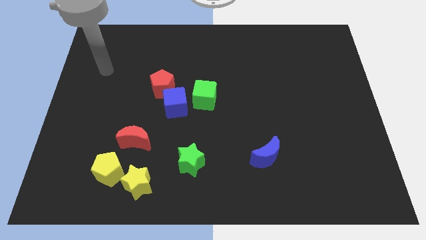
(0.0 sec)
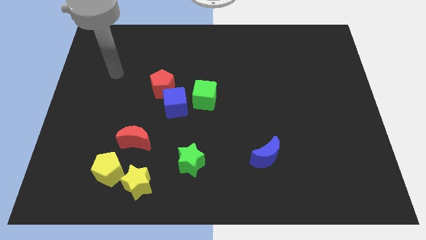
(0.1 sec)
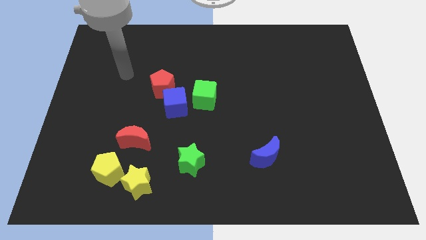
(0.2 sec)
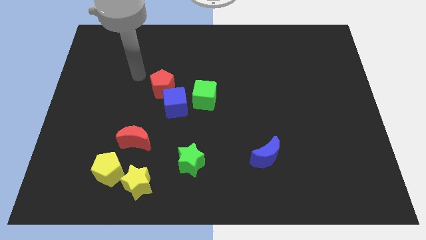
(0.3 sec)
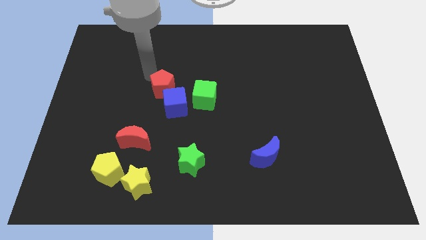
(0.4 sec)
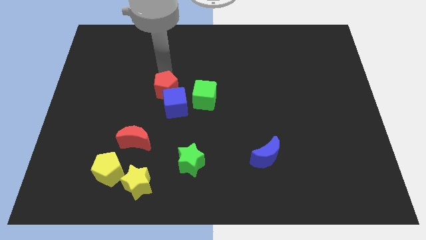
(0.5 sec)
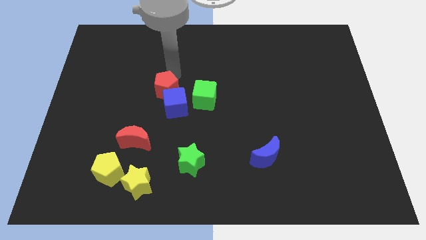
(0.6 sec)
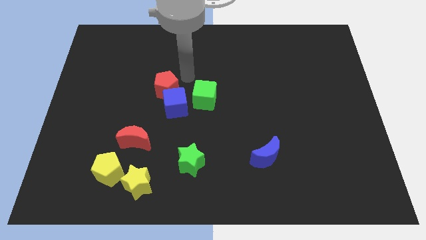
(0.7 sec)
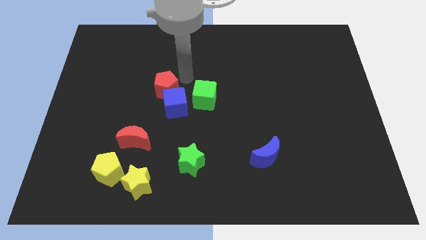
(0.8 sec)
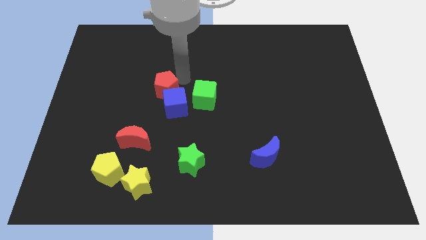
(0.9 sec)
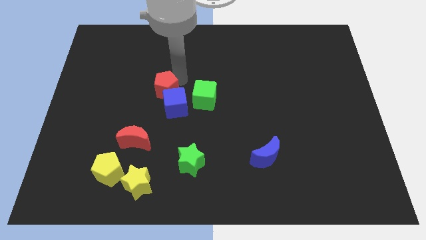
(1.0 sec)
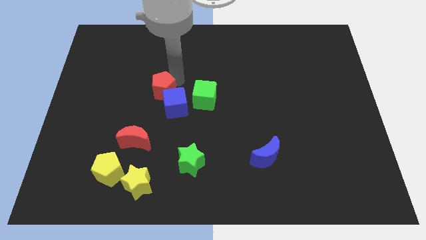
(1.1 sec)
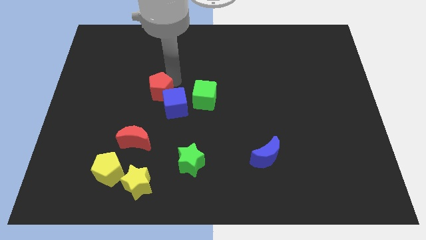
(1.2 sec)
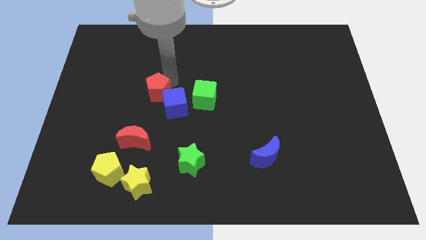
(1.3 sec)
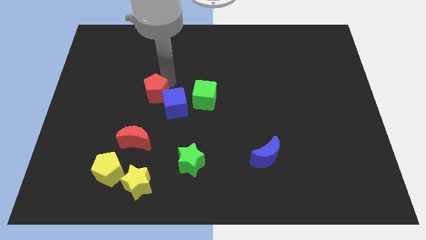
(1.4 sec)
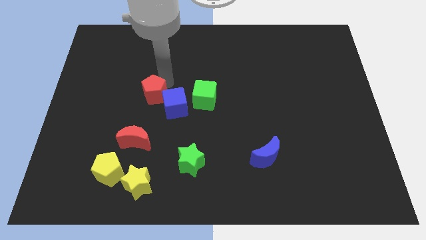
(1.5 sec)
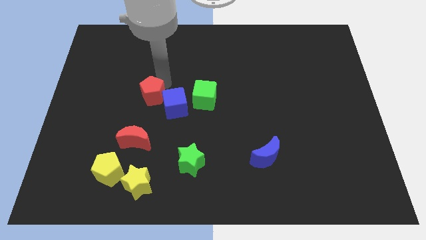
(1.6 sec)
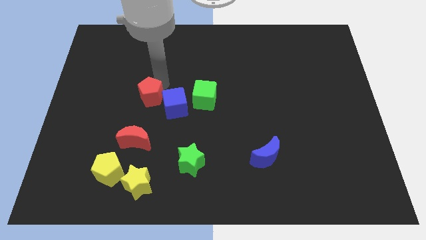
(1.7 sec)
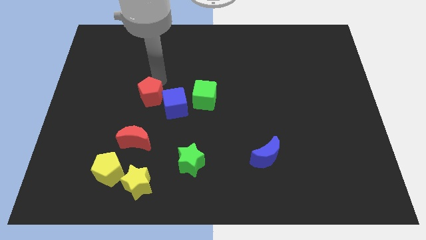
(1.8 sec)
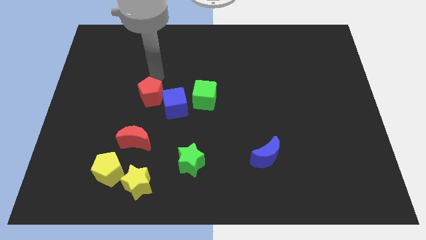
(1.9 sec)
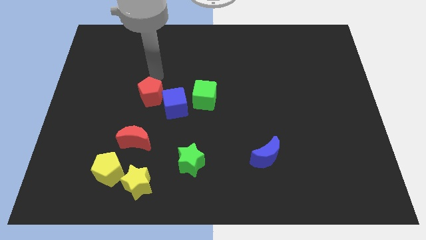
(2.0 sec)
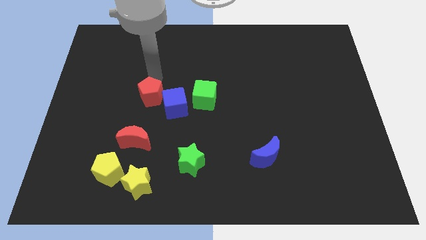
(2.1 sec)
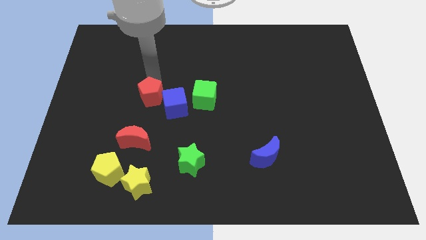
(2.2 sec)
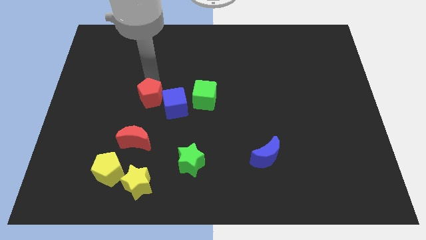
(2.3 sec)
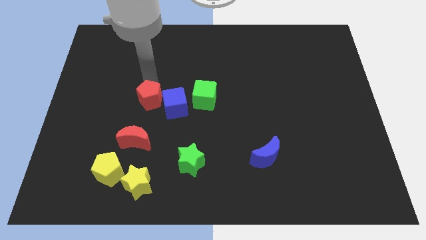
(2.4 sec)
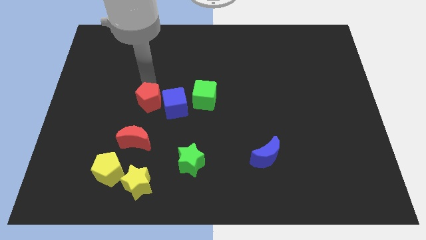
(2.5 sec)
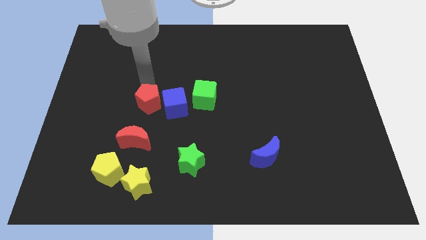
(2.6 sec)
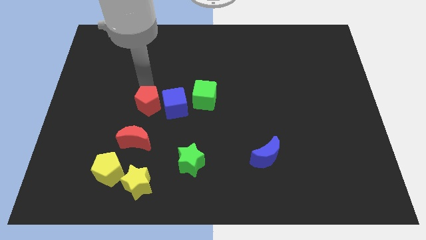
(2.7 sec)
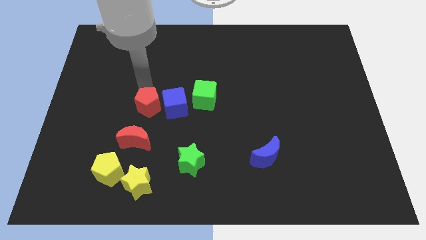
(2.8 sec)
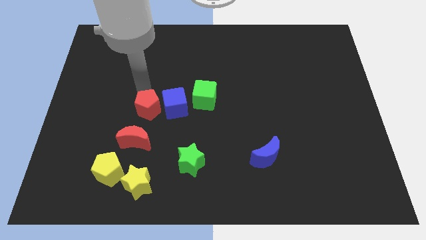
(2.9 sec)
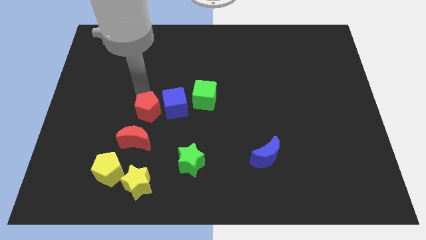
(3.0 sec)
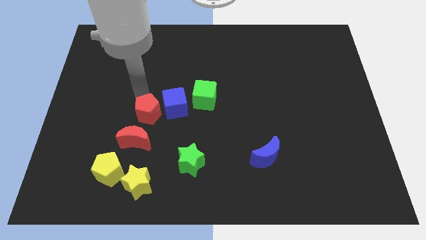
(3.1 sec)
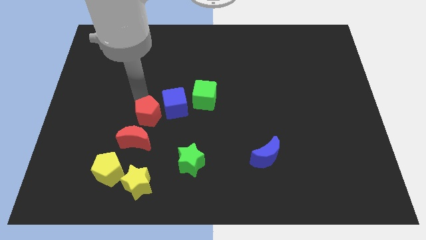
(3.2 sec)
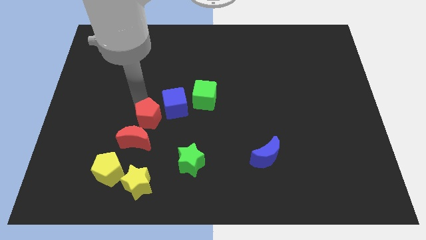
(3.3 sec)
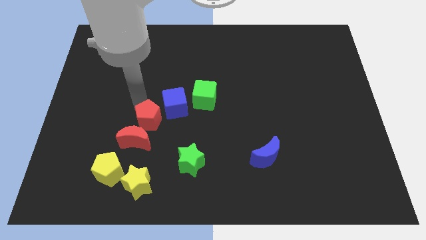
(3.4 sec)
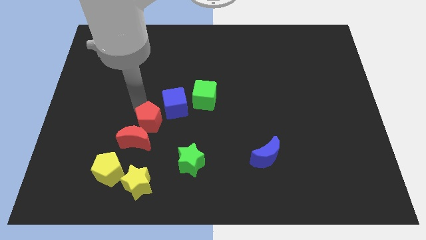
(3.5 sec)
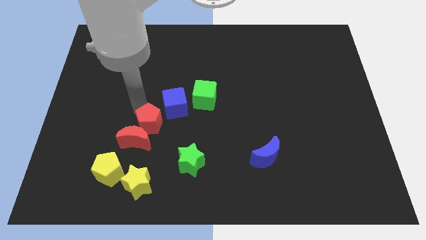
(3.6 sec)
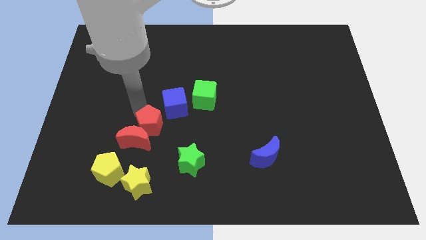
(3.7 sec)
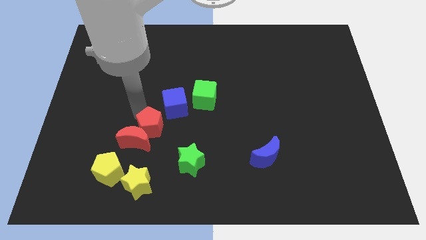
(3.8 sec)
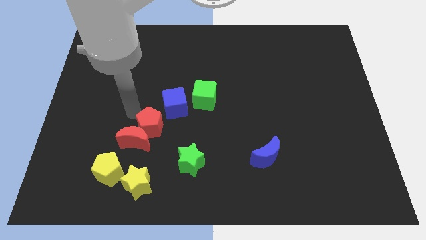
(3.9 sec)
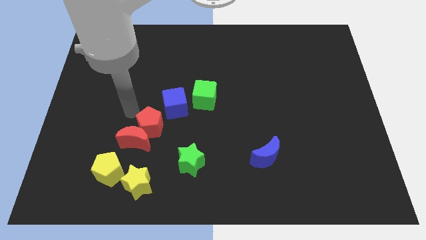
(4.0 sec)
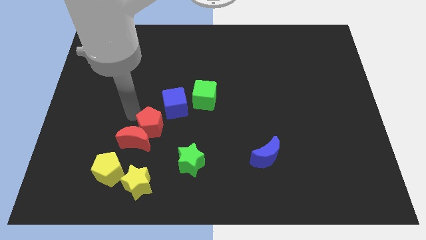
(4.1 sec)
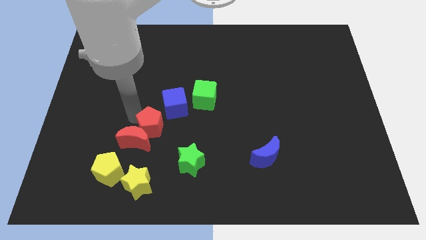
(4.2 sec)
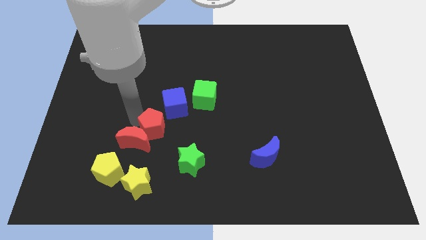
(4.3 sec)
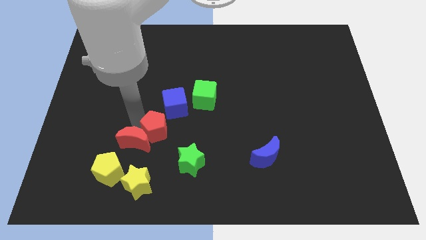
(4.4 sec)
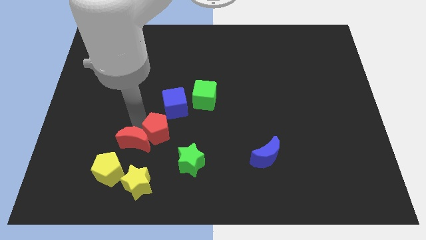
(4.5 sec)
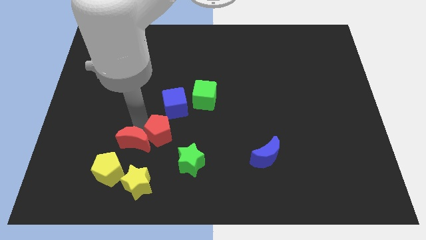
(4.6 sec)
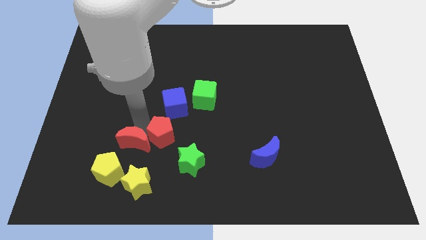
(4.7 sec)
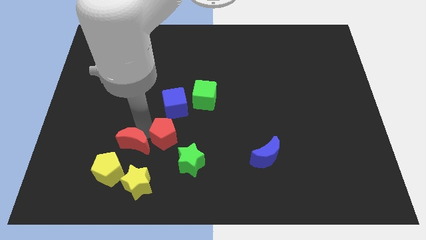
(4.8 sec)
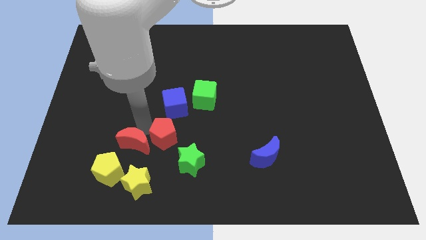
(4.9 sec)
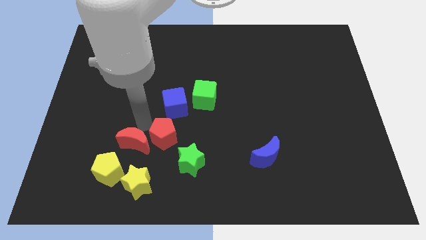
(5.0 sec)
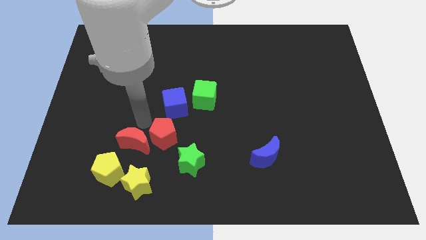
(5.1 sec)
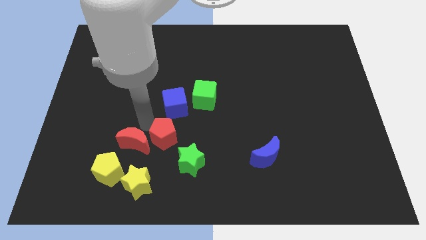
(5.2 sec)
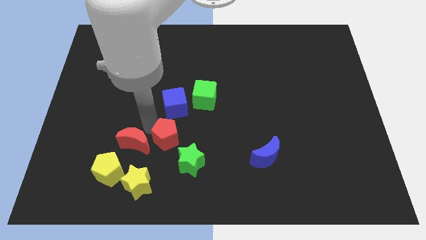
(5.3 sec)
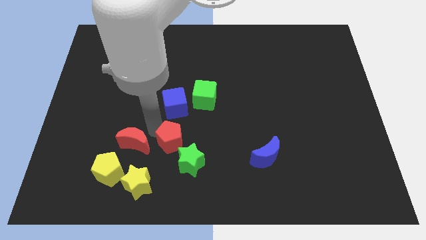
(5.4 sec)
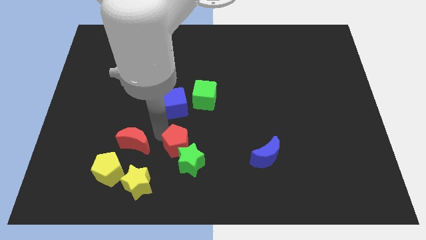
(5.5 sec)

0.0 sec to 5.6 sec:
push the red pentagon next to the green star

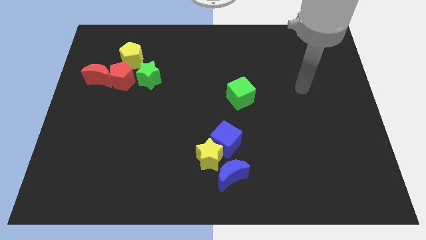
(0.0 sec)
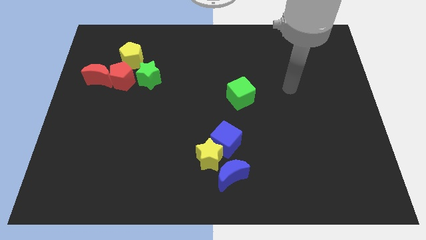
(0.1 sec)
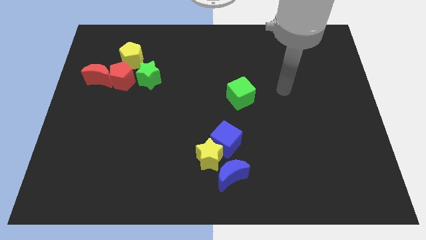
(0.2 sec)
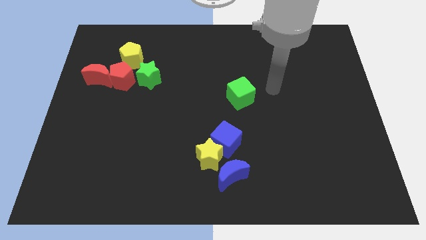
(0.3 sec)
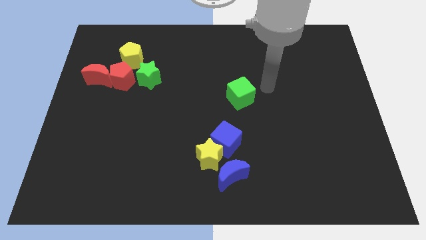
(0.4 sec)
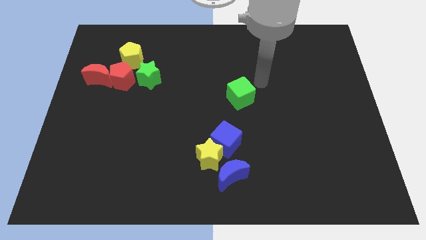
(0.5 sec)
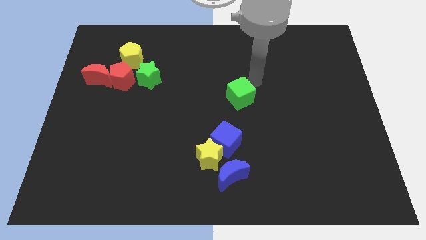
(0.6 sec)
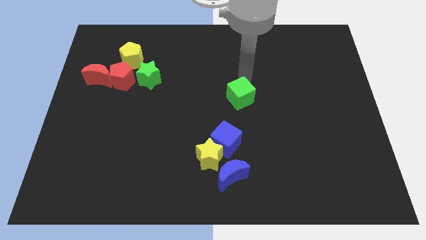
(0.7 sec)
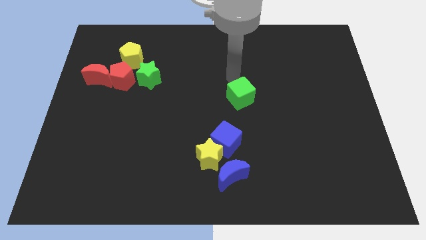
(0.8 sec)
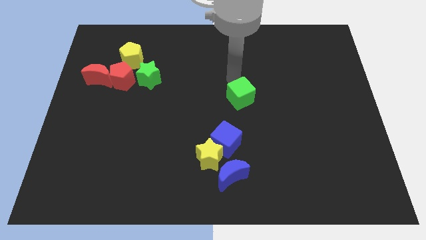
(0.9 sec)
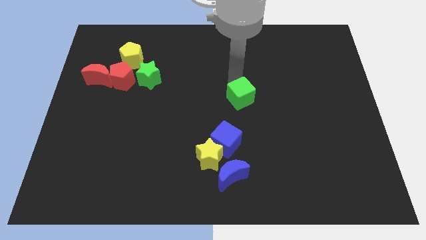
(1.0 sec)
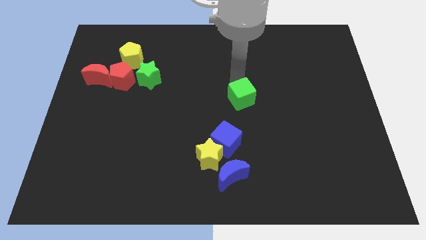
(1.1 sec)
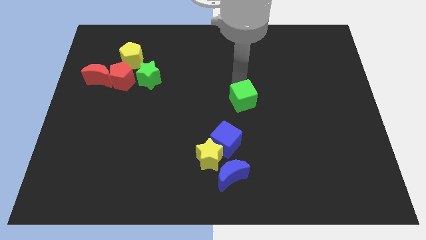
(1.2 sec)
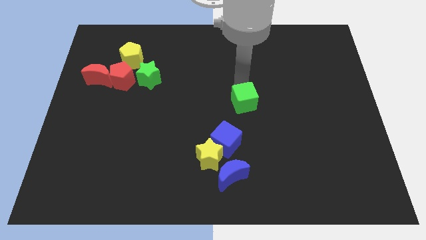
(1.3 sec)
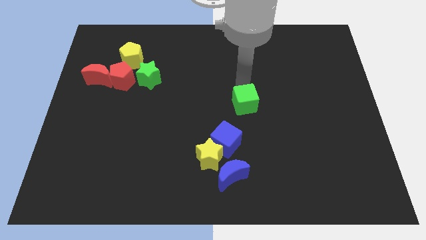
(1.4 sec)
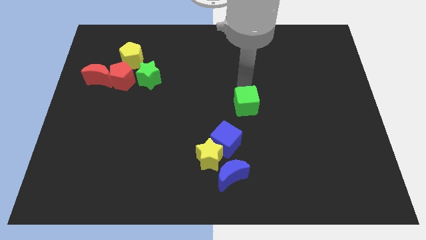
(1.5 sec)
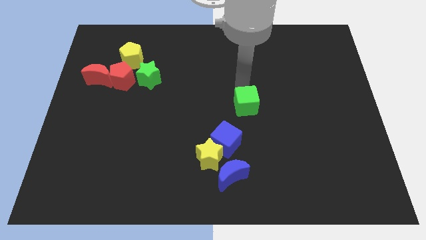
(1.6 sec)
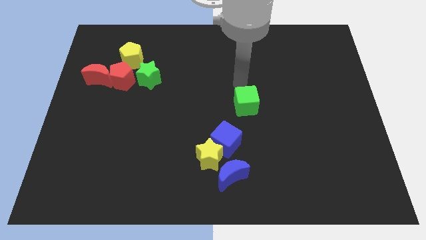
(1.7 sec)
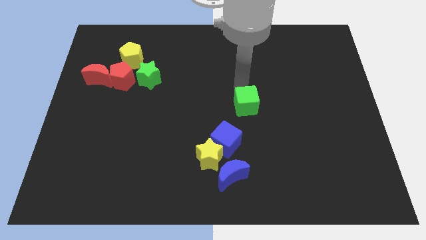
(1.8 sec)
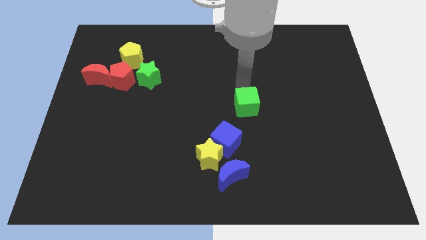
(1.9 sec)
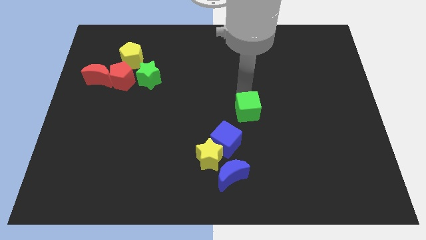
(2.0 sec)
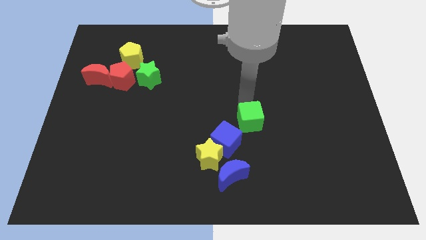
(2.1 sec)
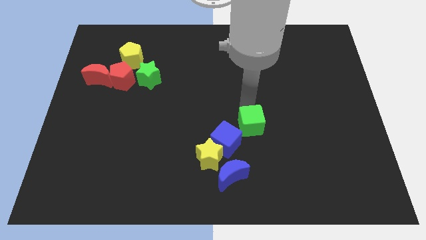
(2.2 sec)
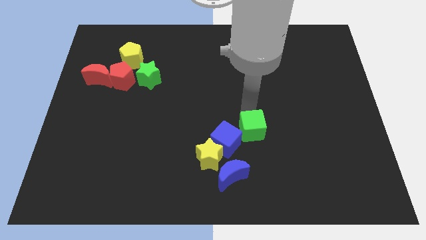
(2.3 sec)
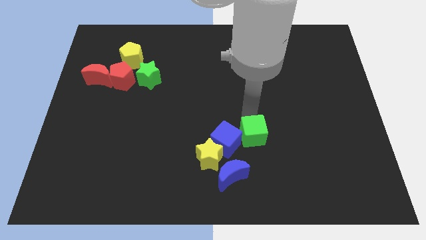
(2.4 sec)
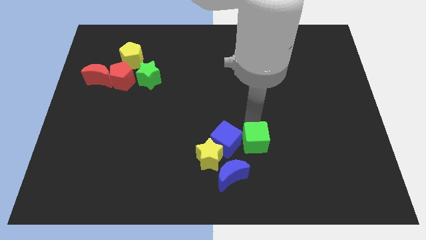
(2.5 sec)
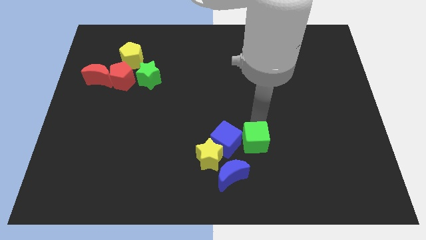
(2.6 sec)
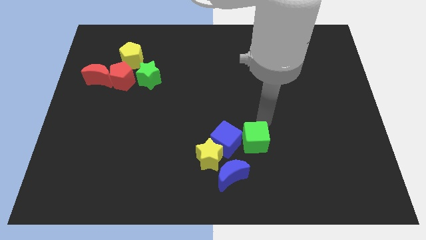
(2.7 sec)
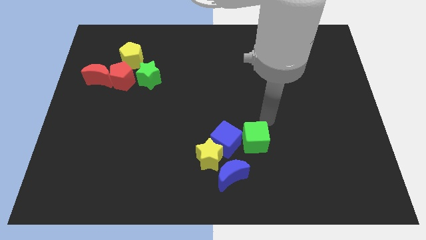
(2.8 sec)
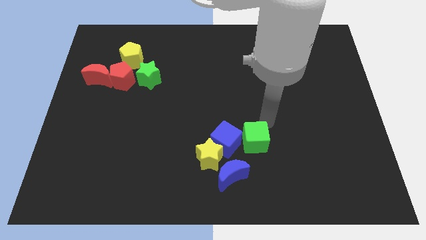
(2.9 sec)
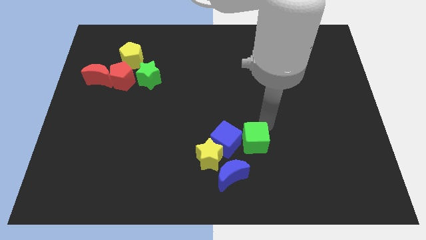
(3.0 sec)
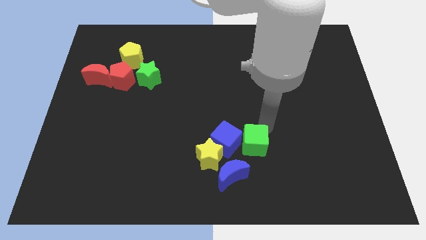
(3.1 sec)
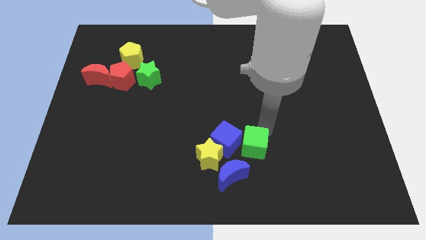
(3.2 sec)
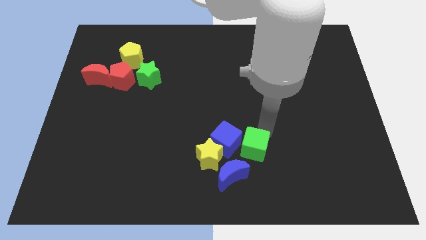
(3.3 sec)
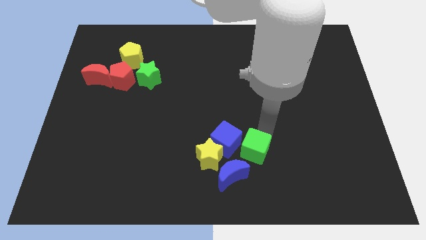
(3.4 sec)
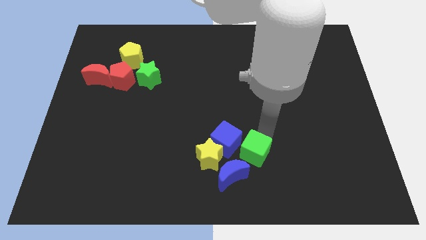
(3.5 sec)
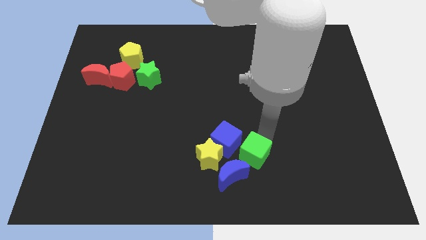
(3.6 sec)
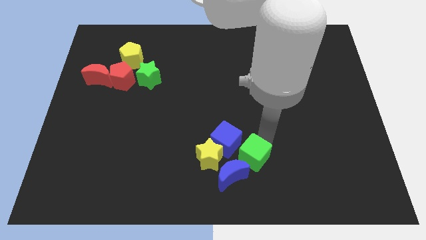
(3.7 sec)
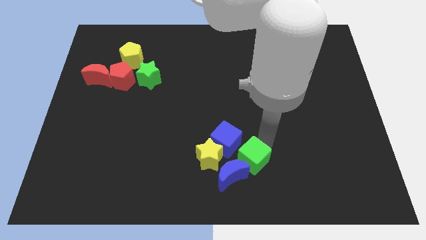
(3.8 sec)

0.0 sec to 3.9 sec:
put the green cube close to the blue moon
